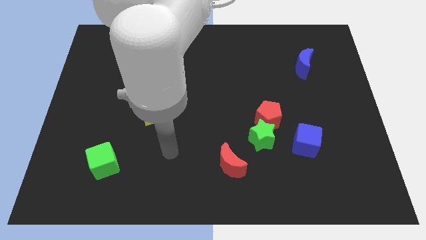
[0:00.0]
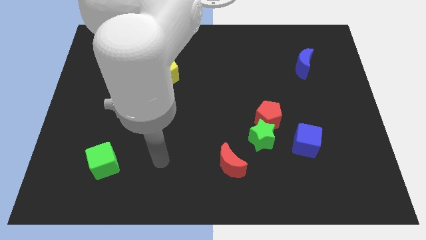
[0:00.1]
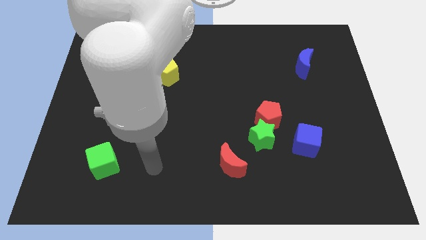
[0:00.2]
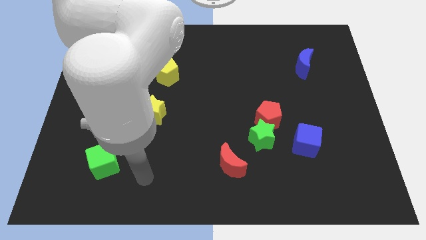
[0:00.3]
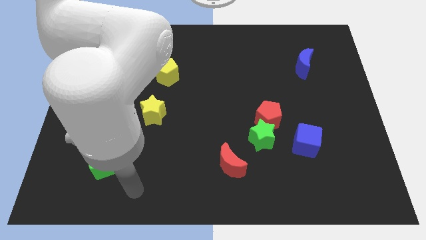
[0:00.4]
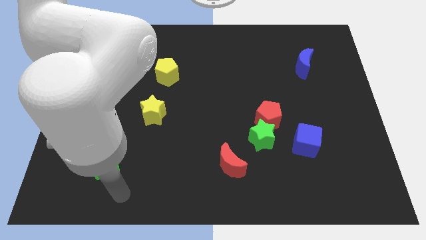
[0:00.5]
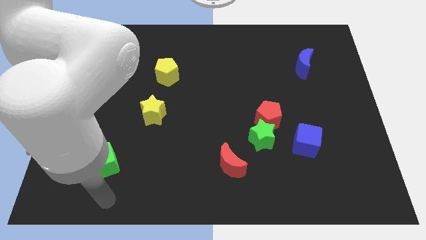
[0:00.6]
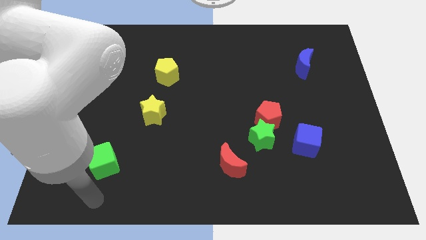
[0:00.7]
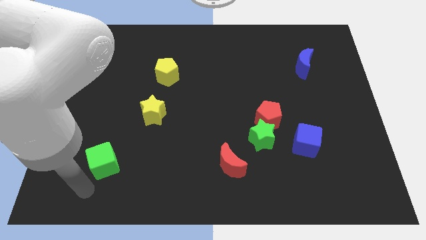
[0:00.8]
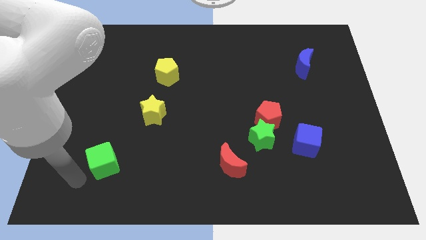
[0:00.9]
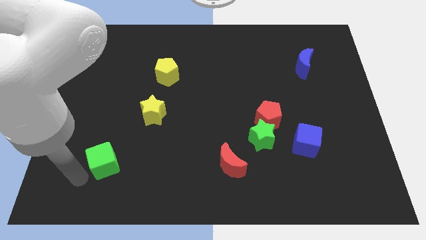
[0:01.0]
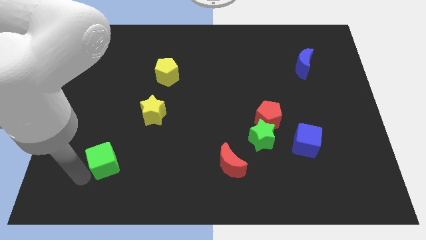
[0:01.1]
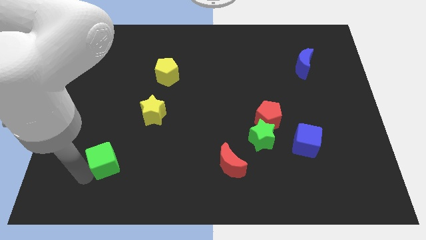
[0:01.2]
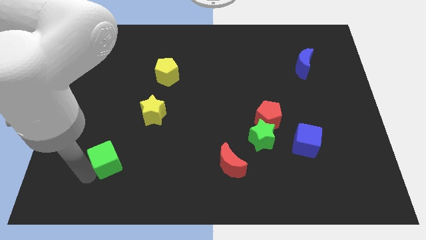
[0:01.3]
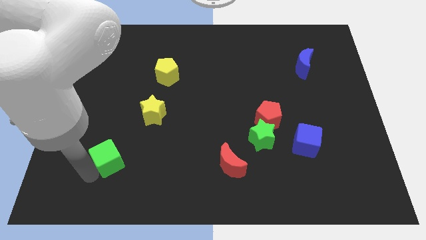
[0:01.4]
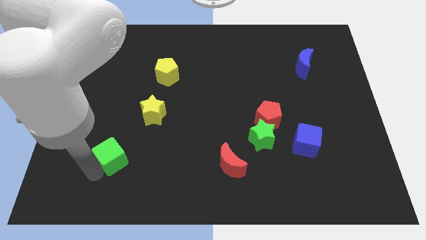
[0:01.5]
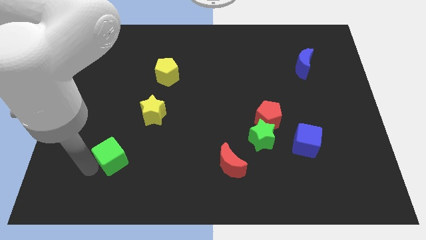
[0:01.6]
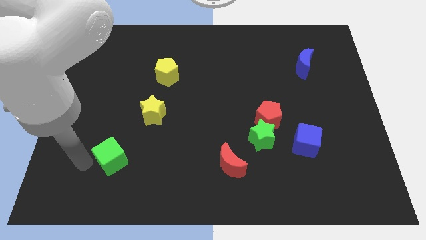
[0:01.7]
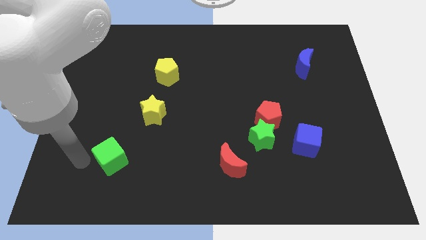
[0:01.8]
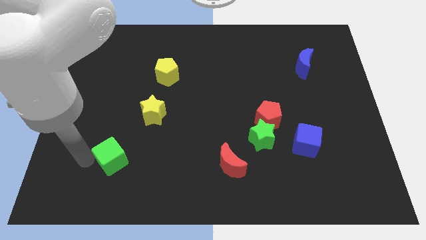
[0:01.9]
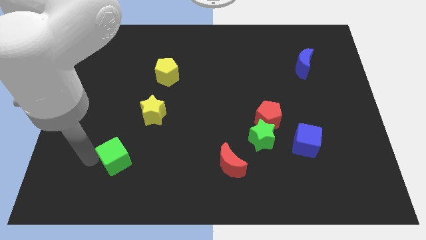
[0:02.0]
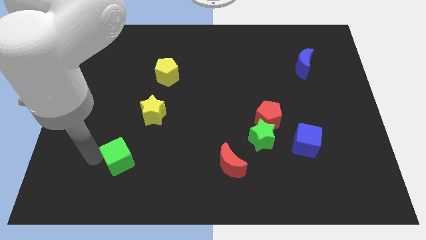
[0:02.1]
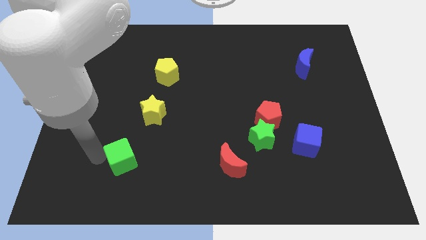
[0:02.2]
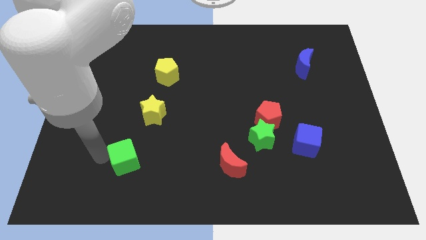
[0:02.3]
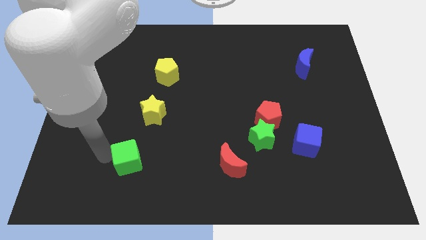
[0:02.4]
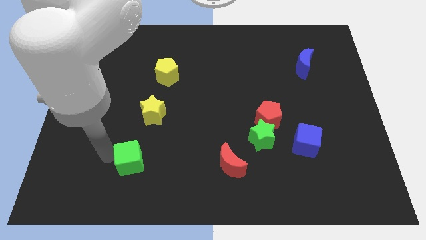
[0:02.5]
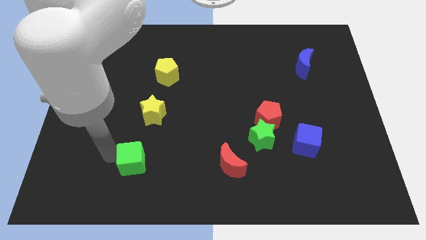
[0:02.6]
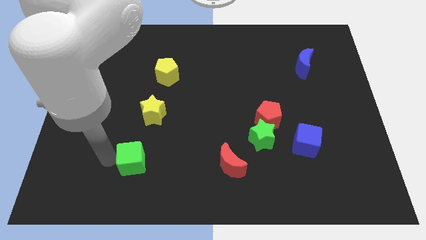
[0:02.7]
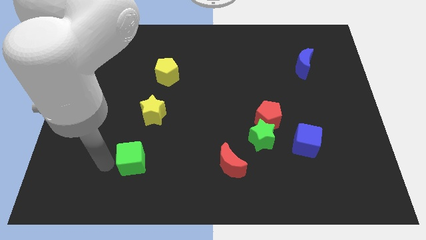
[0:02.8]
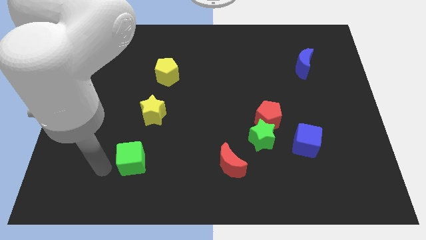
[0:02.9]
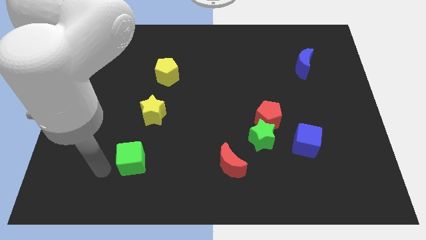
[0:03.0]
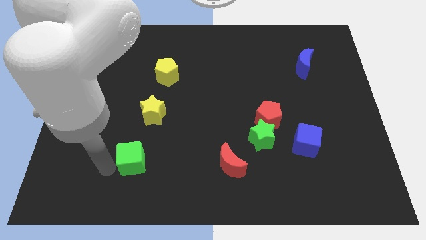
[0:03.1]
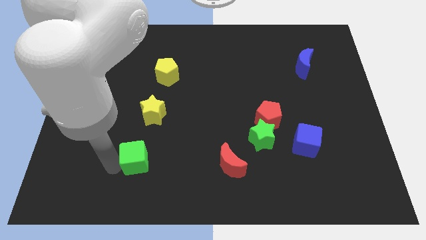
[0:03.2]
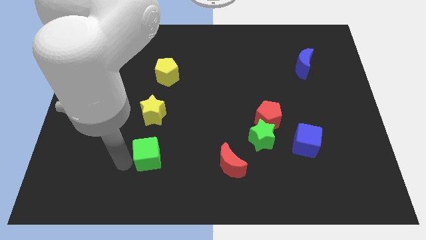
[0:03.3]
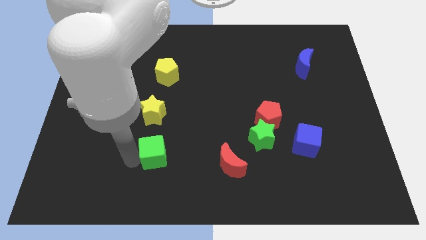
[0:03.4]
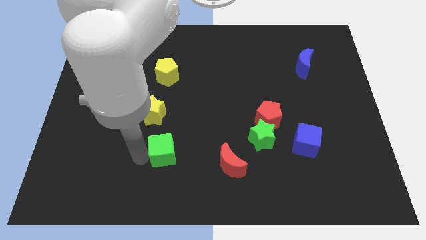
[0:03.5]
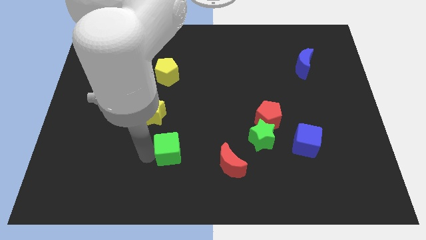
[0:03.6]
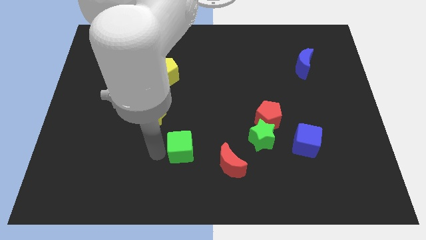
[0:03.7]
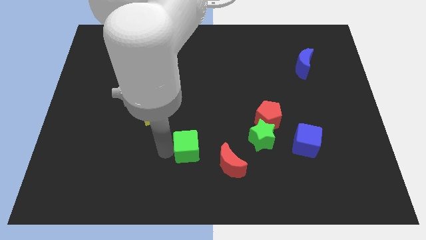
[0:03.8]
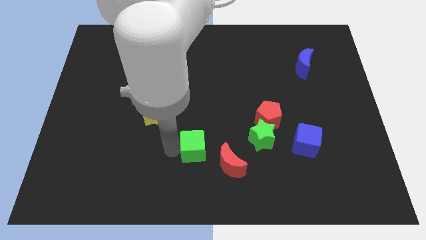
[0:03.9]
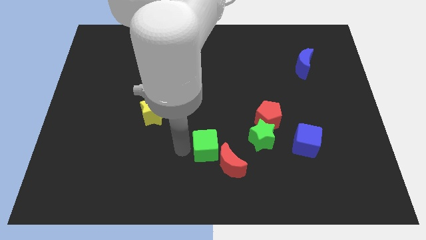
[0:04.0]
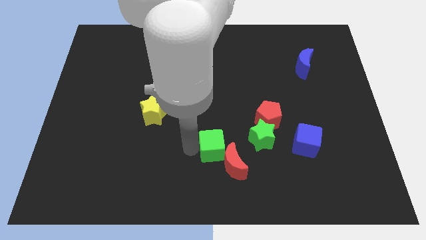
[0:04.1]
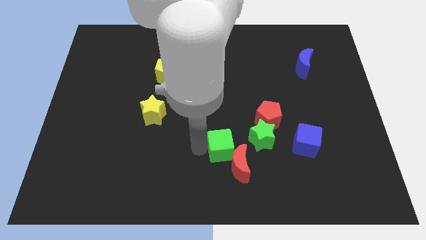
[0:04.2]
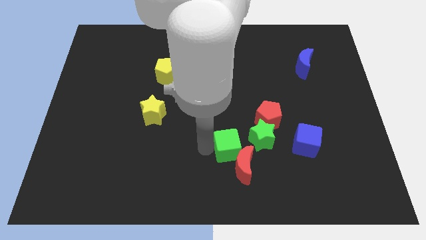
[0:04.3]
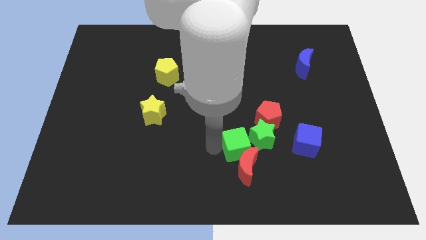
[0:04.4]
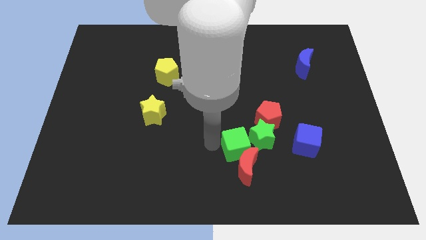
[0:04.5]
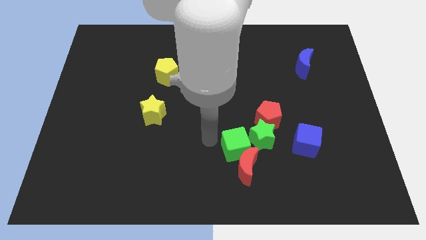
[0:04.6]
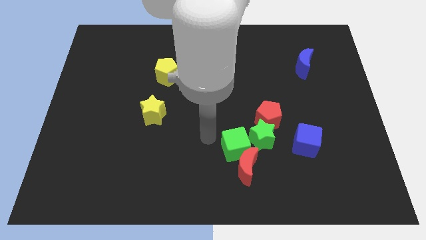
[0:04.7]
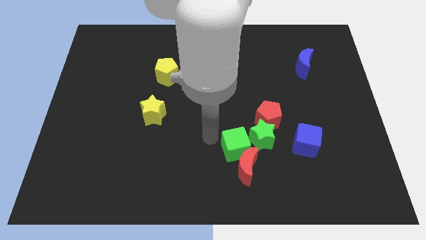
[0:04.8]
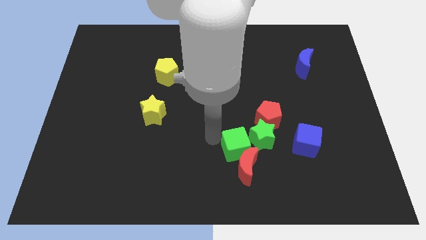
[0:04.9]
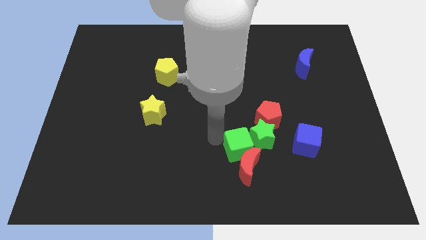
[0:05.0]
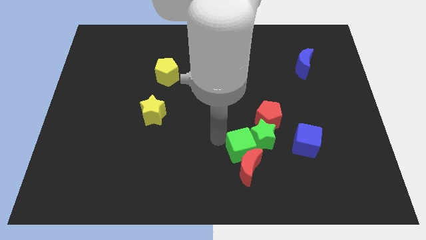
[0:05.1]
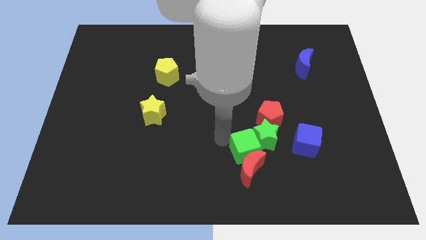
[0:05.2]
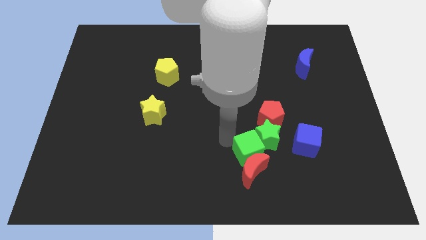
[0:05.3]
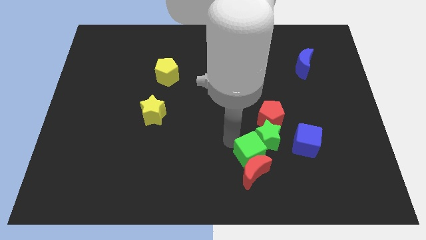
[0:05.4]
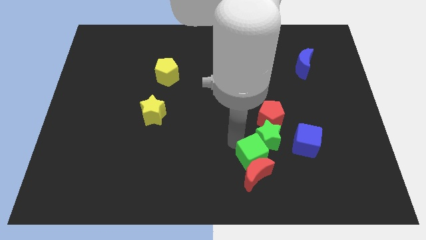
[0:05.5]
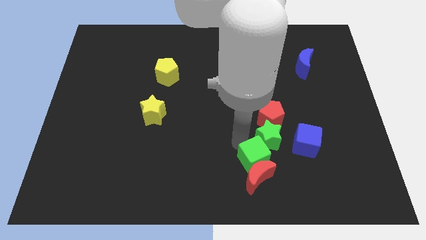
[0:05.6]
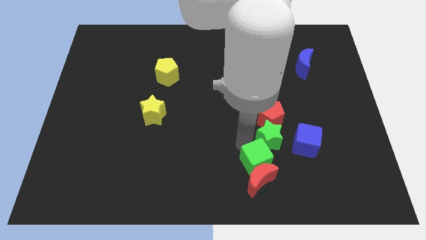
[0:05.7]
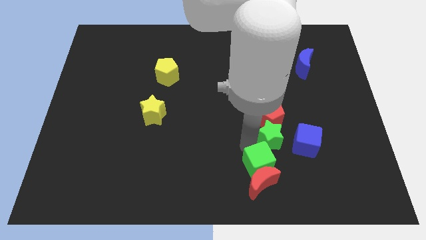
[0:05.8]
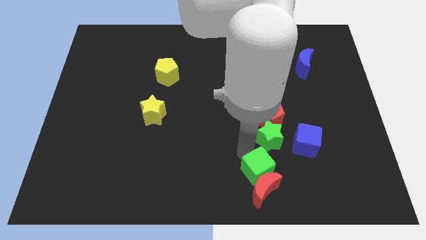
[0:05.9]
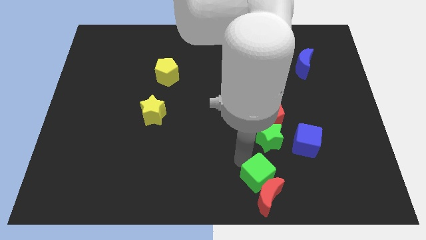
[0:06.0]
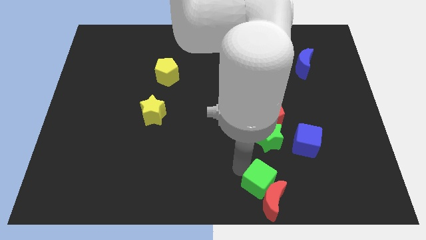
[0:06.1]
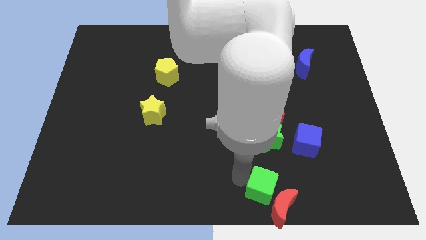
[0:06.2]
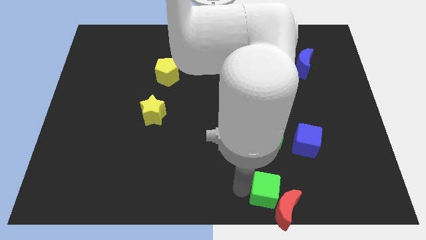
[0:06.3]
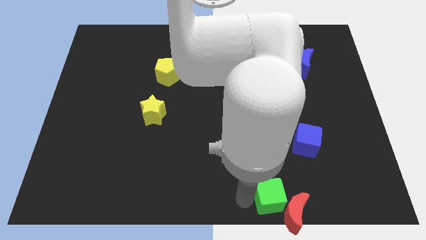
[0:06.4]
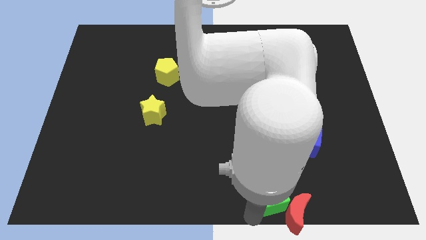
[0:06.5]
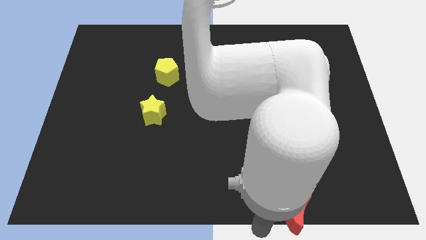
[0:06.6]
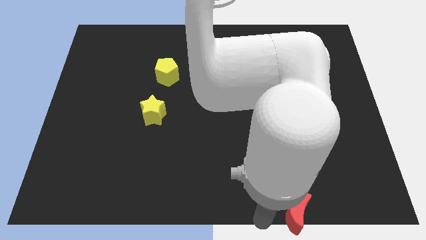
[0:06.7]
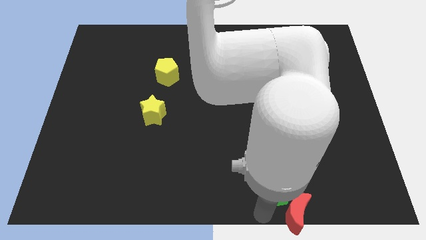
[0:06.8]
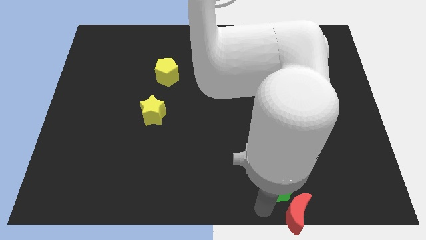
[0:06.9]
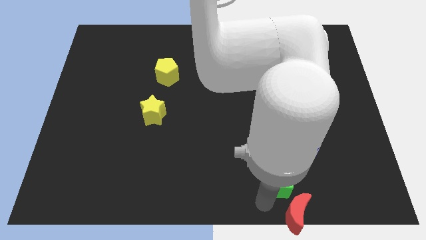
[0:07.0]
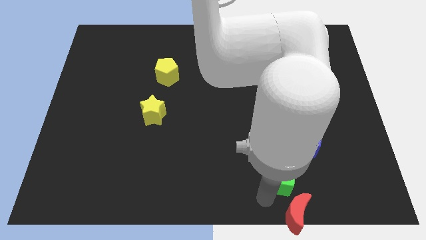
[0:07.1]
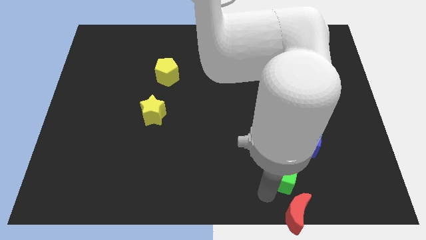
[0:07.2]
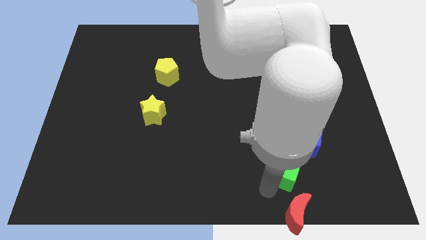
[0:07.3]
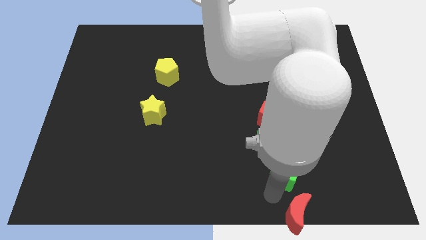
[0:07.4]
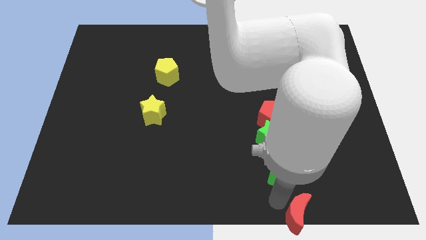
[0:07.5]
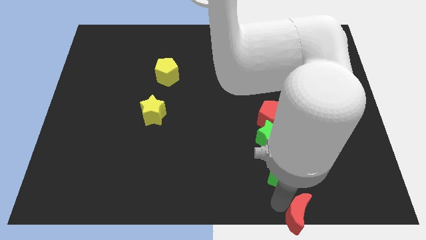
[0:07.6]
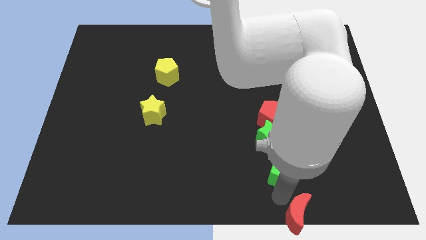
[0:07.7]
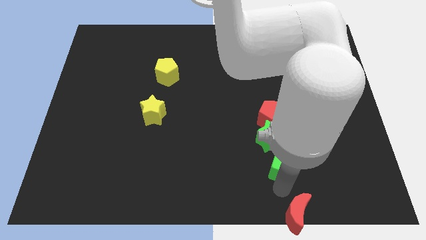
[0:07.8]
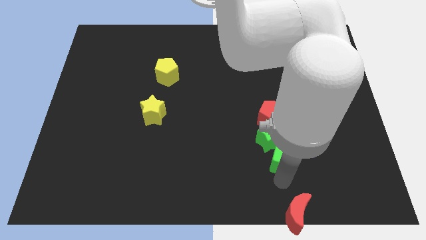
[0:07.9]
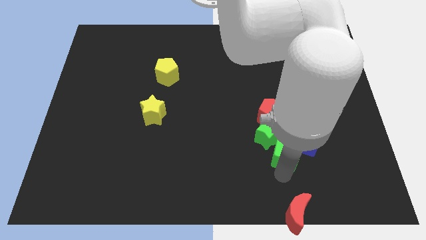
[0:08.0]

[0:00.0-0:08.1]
slide the green cube next to the blue cube
